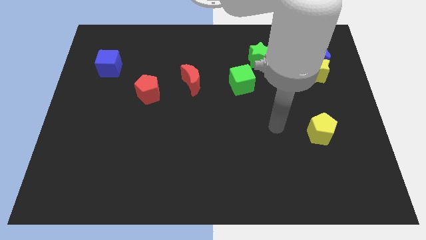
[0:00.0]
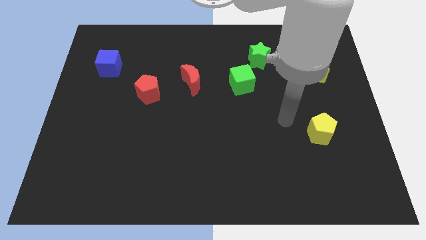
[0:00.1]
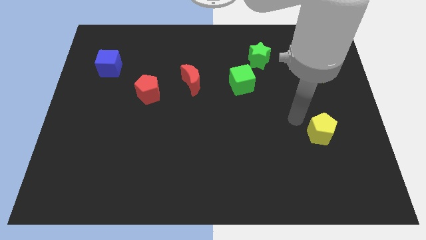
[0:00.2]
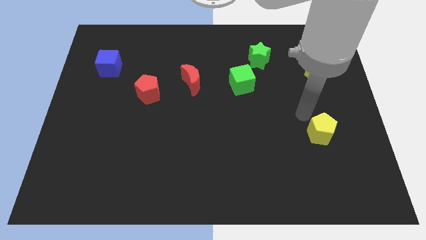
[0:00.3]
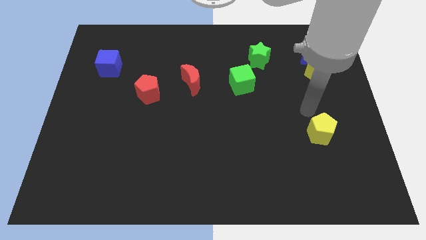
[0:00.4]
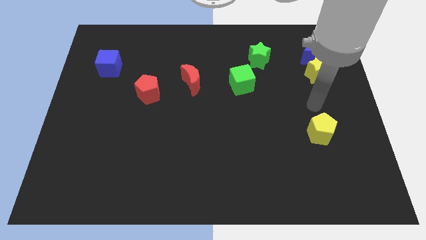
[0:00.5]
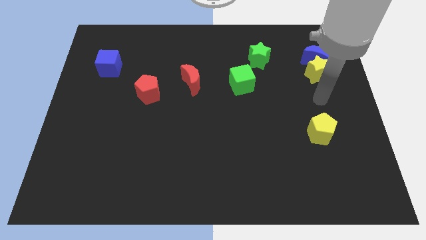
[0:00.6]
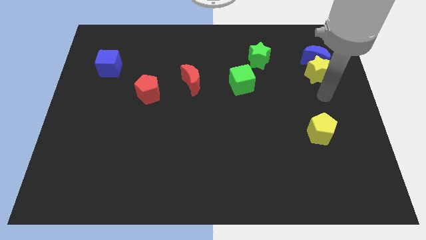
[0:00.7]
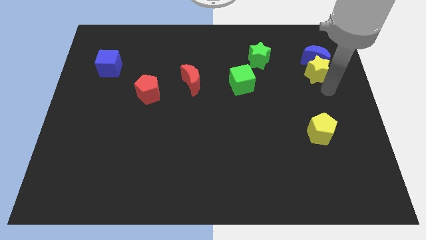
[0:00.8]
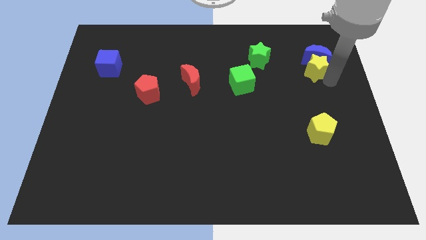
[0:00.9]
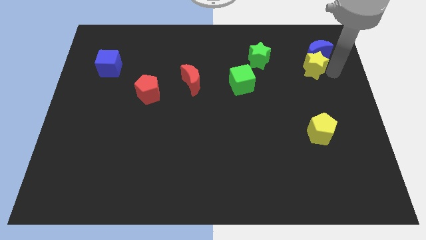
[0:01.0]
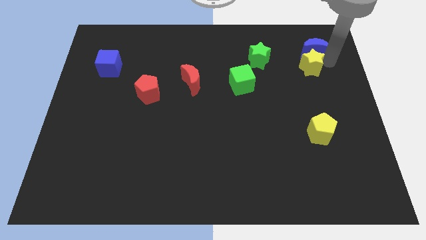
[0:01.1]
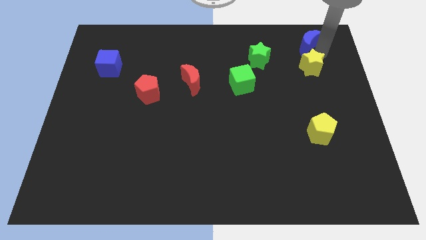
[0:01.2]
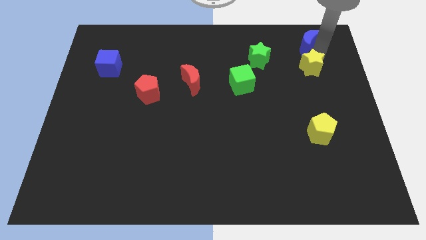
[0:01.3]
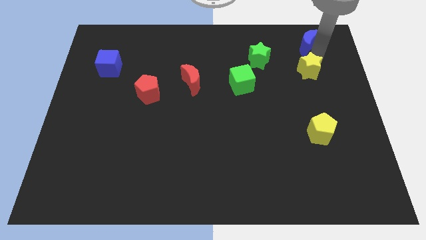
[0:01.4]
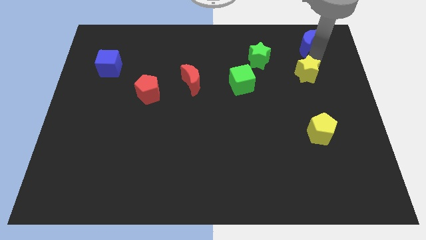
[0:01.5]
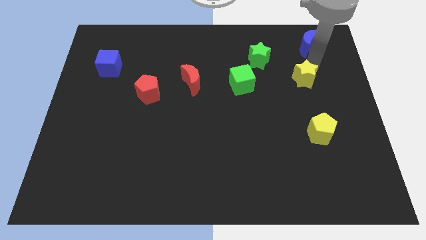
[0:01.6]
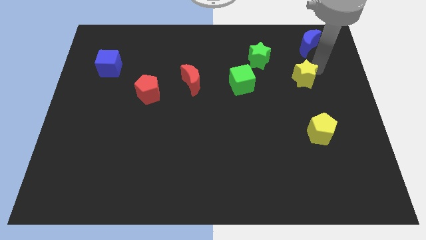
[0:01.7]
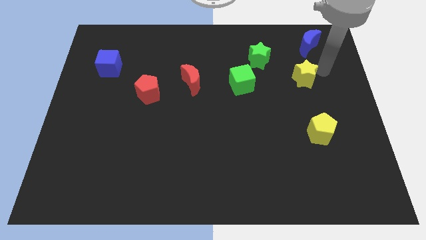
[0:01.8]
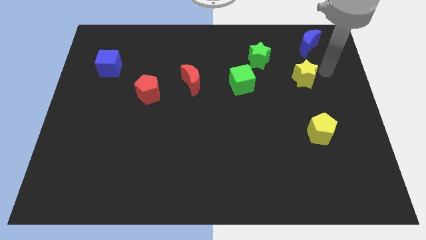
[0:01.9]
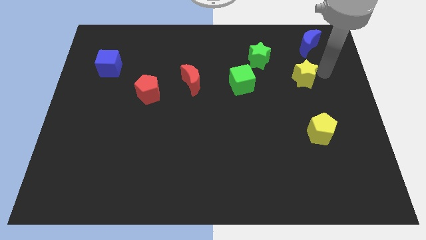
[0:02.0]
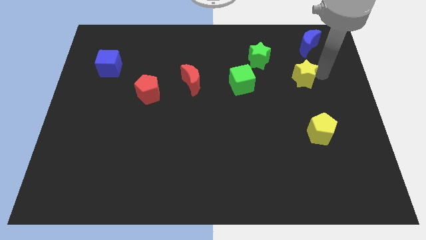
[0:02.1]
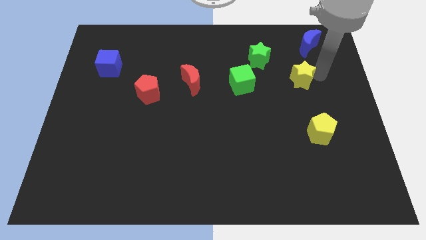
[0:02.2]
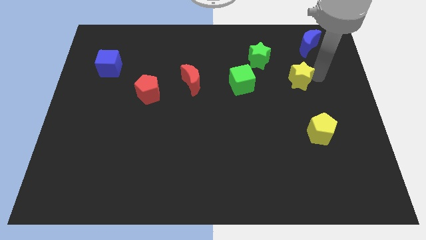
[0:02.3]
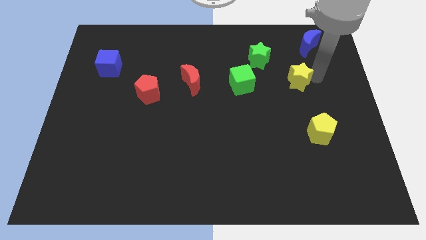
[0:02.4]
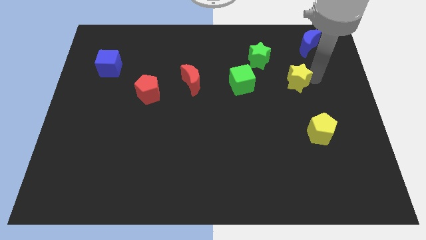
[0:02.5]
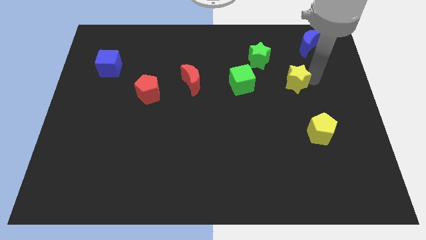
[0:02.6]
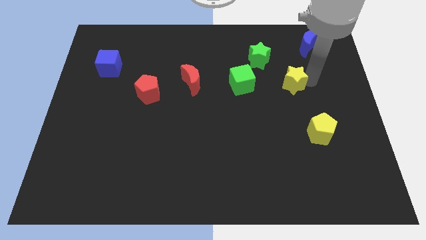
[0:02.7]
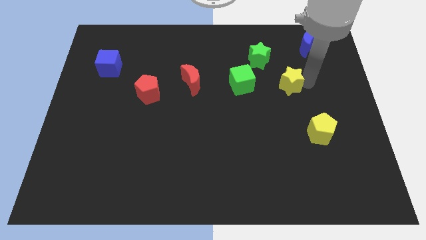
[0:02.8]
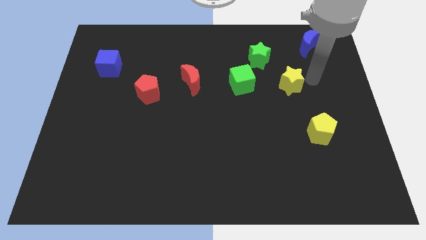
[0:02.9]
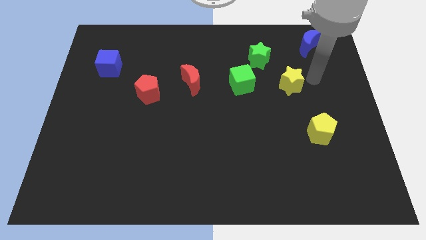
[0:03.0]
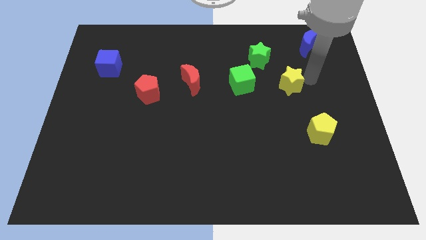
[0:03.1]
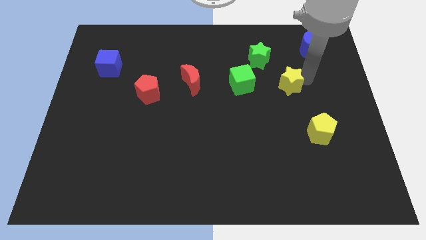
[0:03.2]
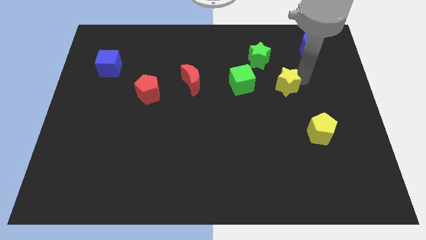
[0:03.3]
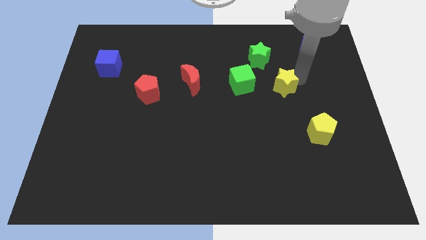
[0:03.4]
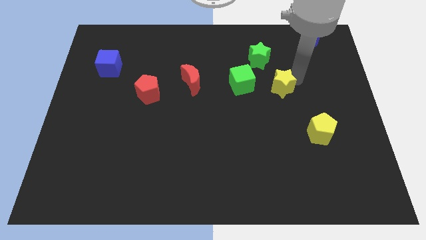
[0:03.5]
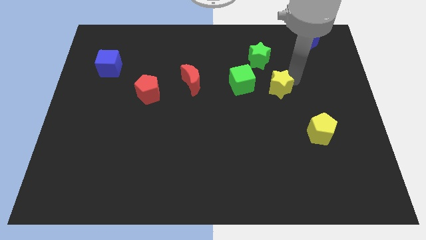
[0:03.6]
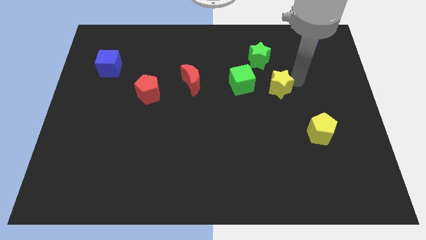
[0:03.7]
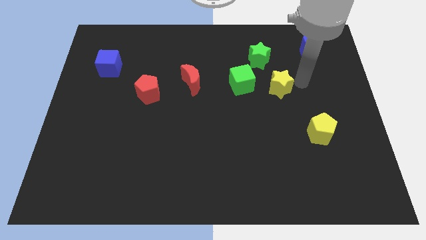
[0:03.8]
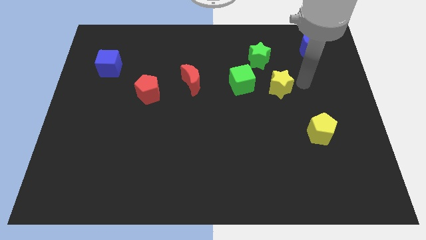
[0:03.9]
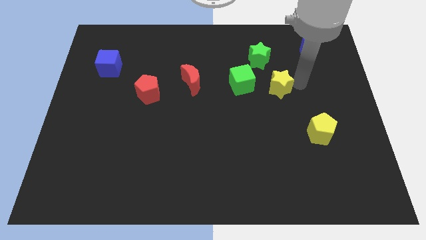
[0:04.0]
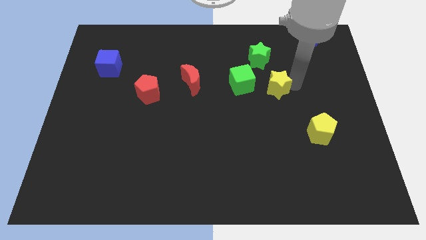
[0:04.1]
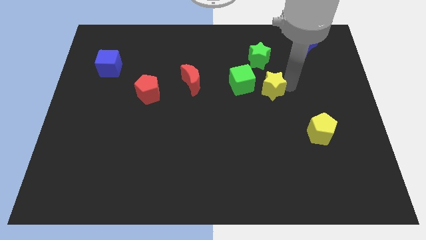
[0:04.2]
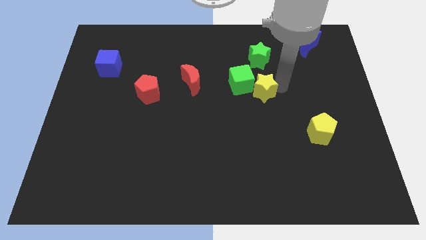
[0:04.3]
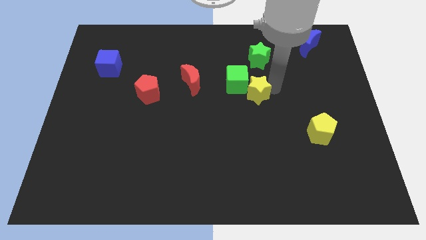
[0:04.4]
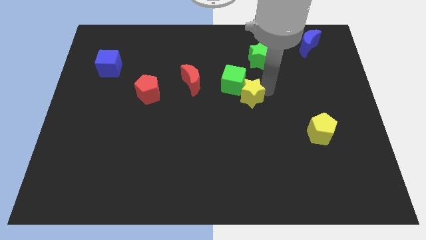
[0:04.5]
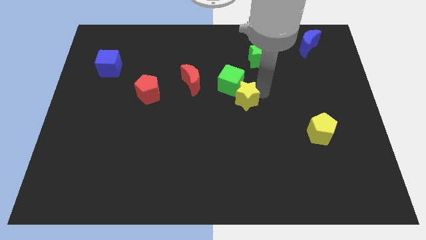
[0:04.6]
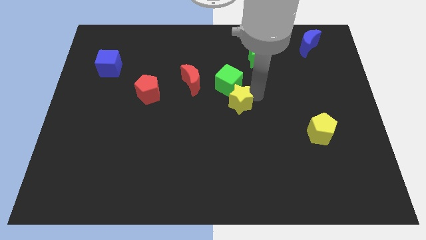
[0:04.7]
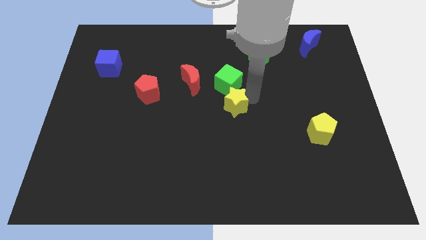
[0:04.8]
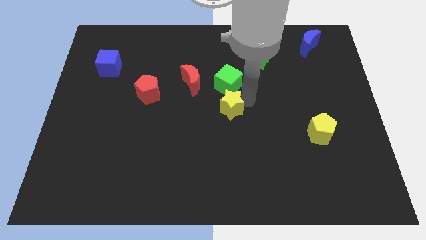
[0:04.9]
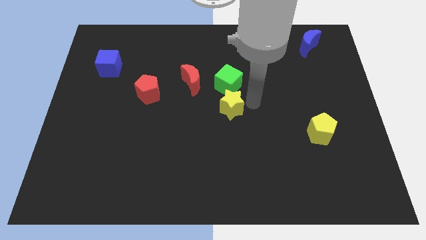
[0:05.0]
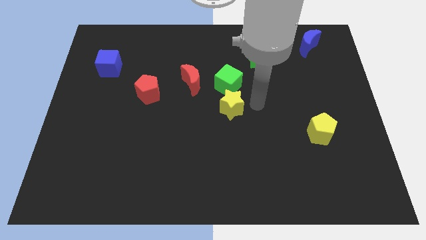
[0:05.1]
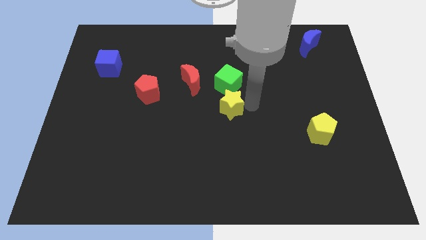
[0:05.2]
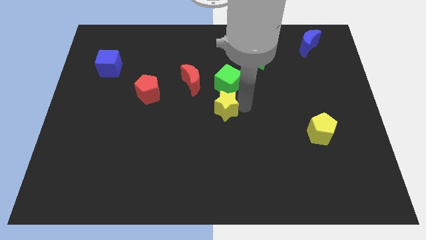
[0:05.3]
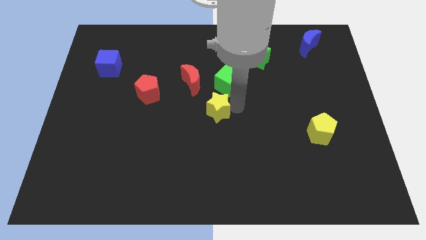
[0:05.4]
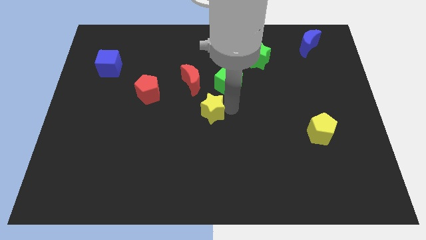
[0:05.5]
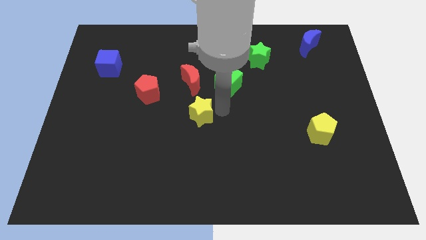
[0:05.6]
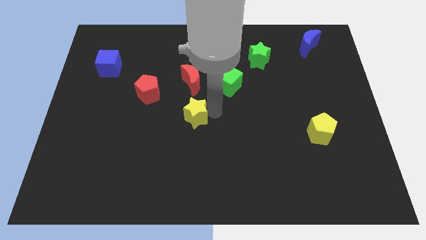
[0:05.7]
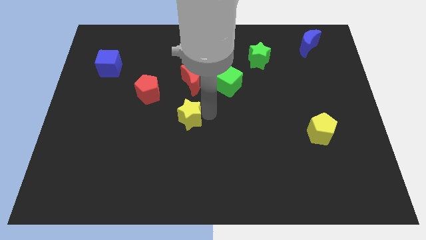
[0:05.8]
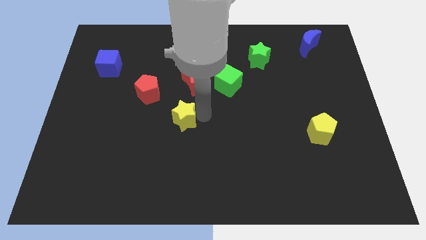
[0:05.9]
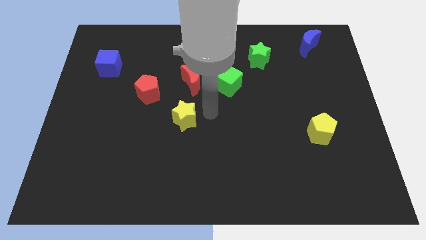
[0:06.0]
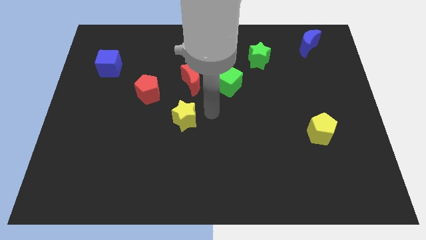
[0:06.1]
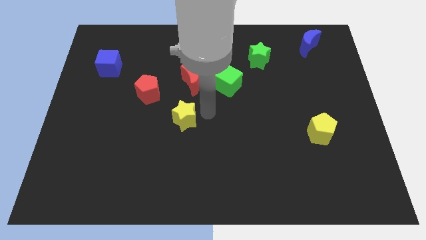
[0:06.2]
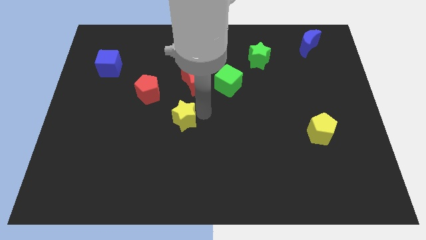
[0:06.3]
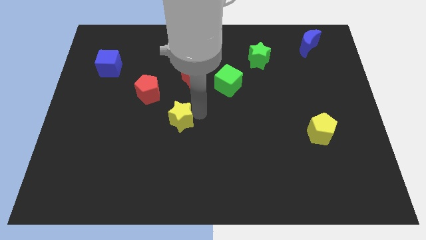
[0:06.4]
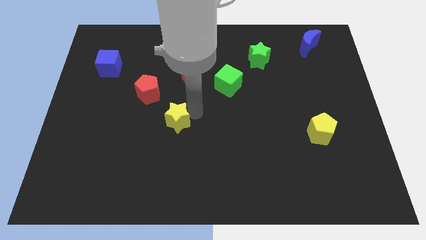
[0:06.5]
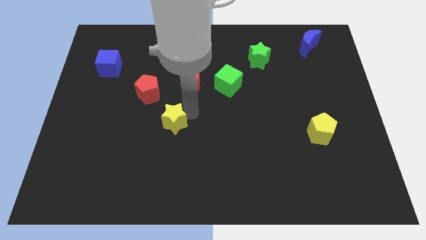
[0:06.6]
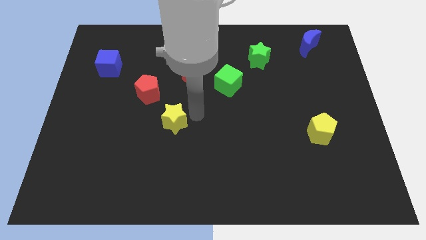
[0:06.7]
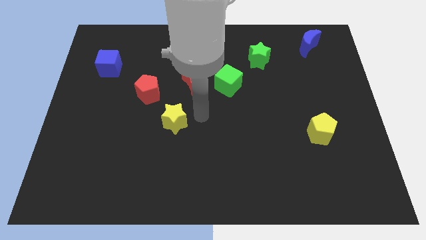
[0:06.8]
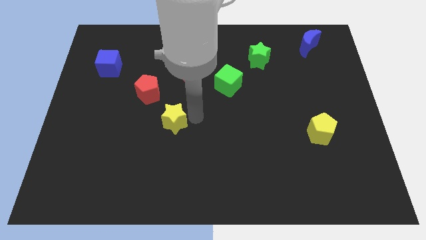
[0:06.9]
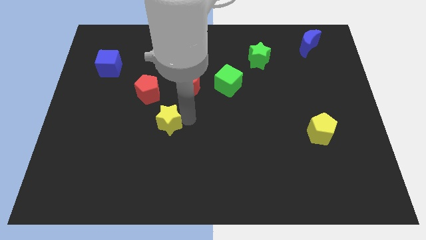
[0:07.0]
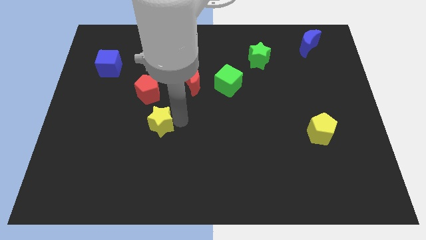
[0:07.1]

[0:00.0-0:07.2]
push the yellow star below the red pentagon
